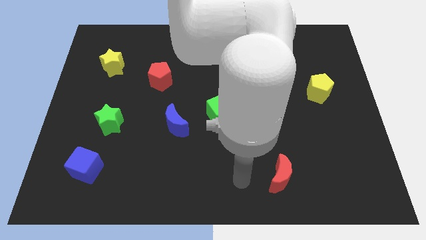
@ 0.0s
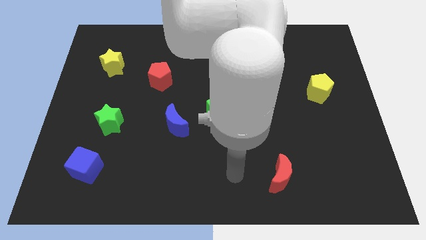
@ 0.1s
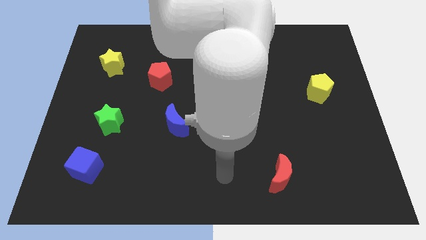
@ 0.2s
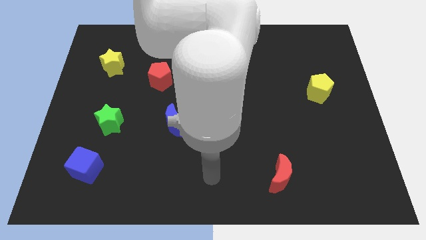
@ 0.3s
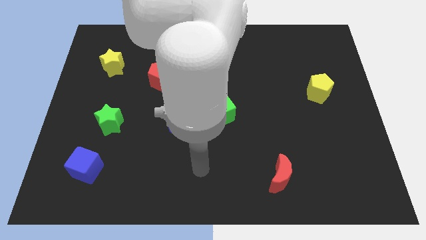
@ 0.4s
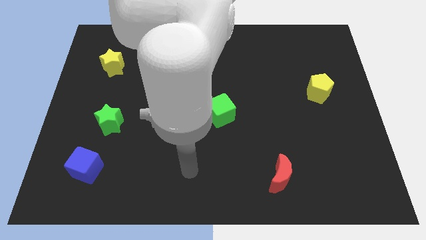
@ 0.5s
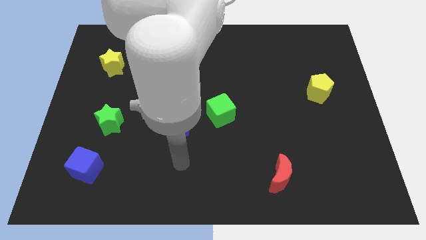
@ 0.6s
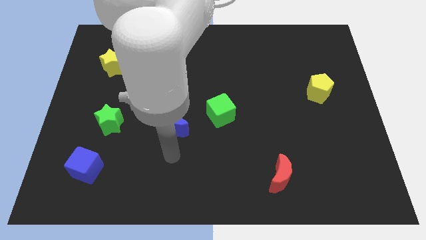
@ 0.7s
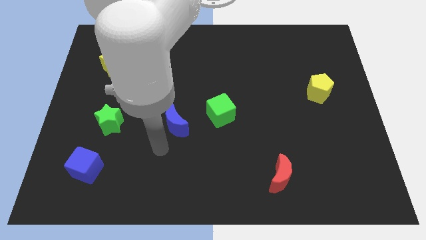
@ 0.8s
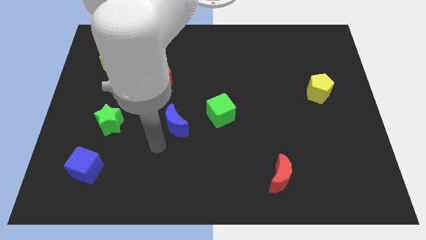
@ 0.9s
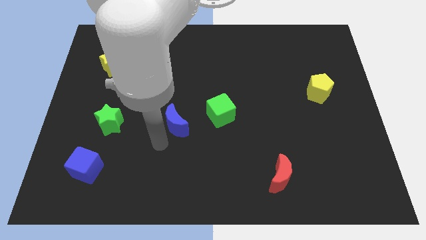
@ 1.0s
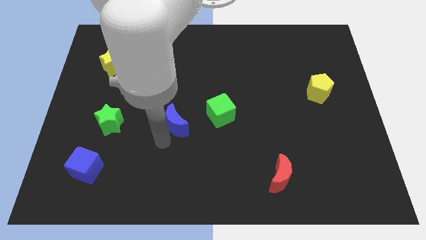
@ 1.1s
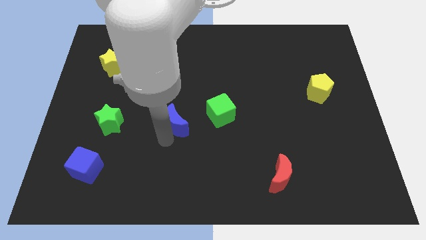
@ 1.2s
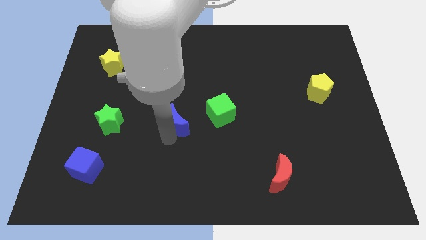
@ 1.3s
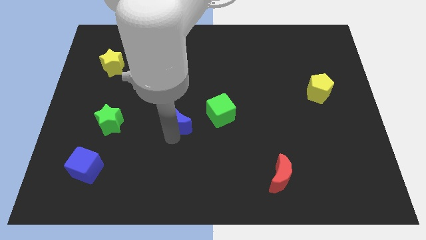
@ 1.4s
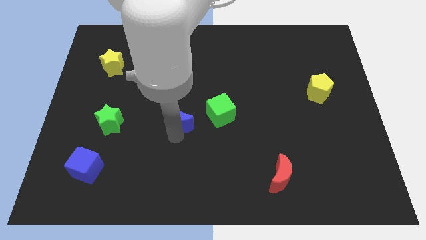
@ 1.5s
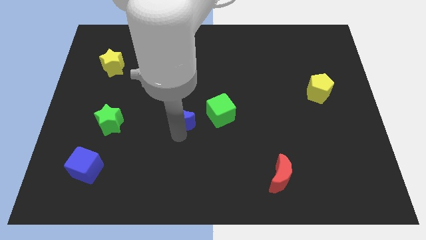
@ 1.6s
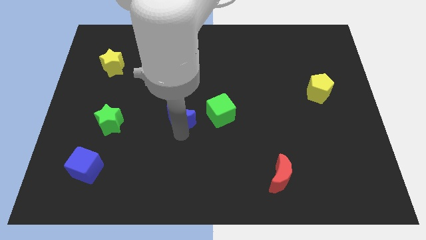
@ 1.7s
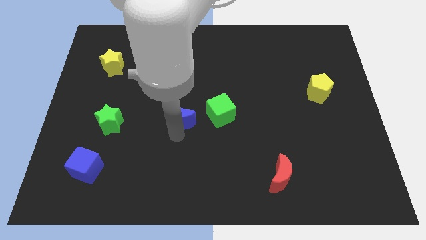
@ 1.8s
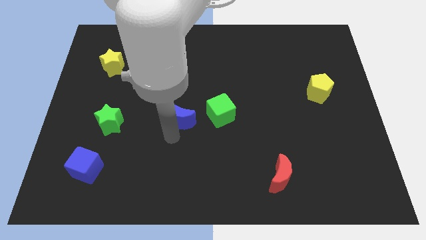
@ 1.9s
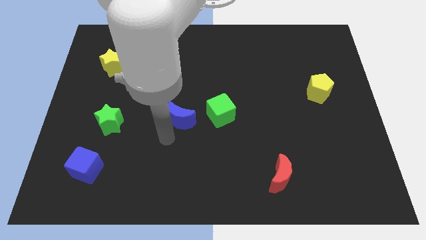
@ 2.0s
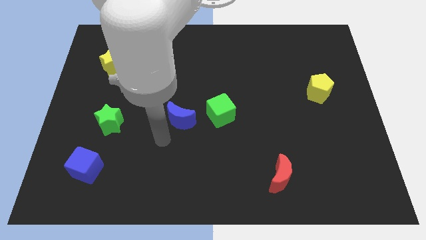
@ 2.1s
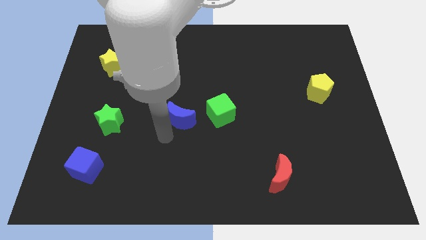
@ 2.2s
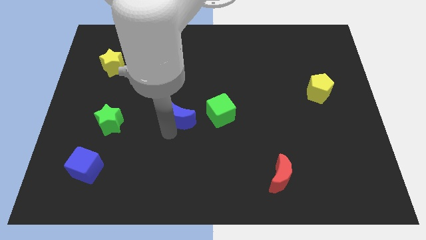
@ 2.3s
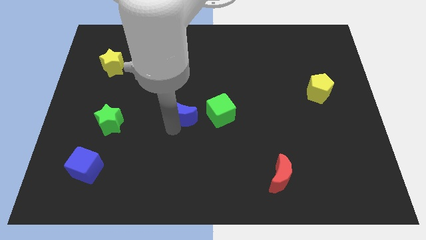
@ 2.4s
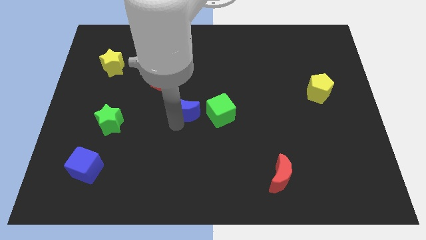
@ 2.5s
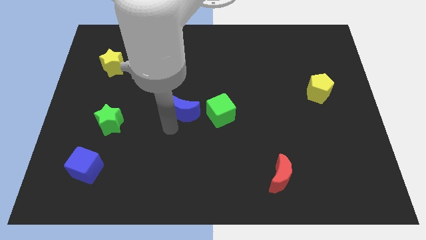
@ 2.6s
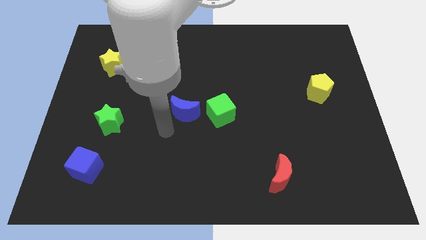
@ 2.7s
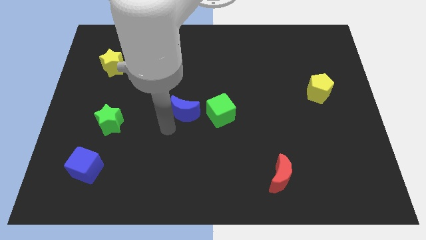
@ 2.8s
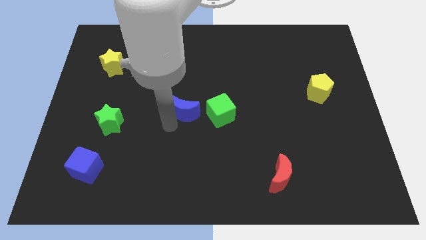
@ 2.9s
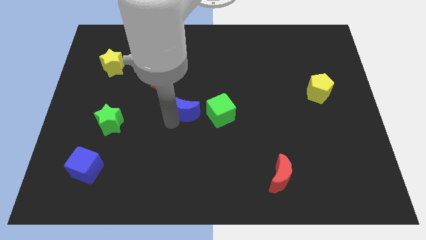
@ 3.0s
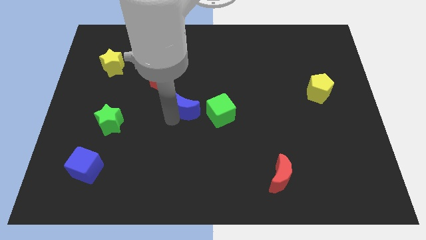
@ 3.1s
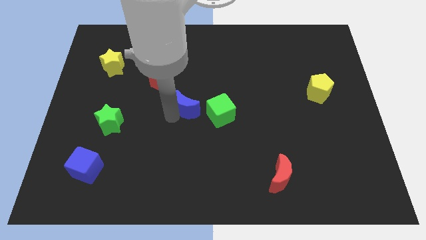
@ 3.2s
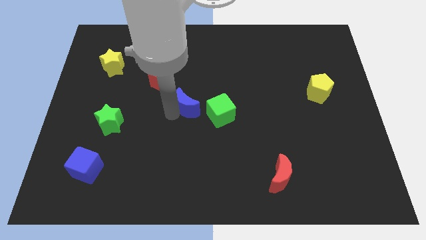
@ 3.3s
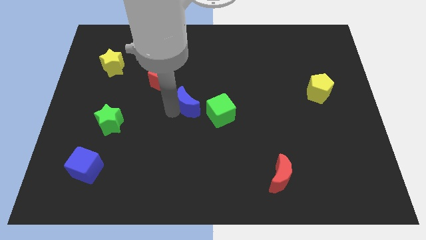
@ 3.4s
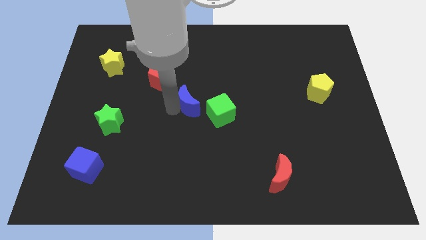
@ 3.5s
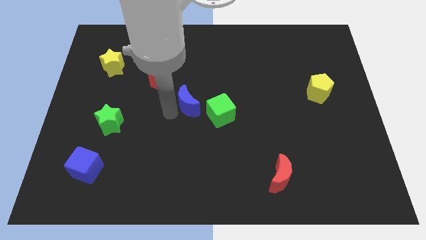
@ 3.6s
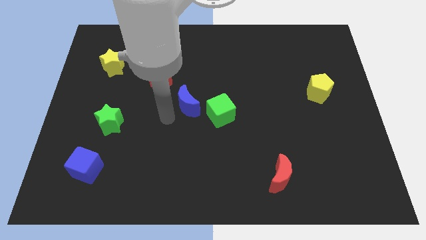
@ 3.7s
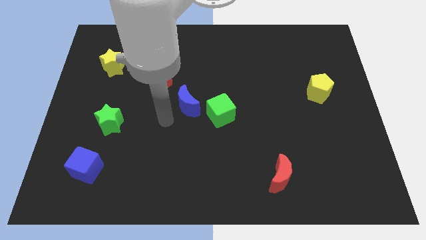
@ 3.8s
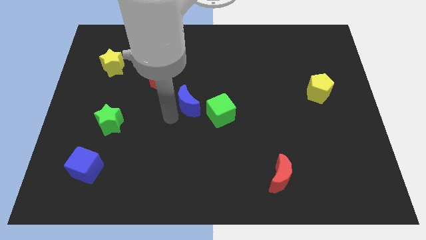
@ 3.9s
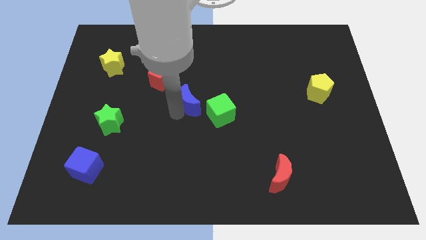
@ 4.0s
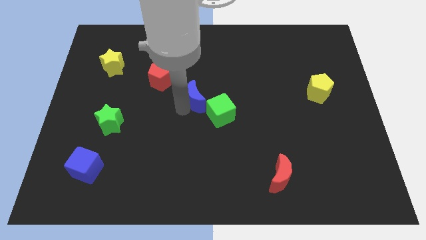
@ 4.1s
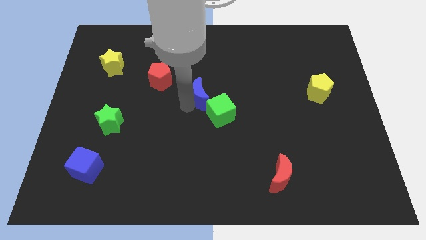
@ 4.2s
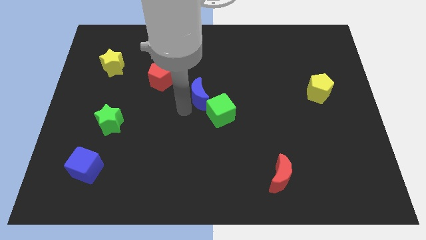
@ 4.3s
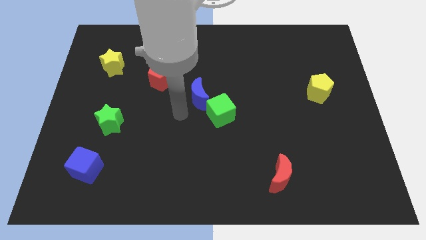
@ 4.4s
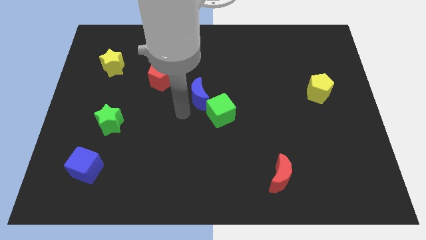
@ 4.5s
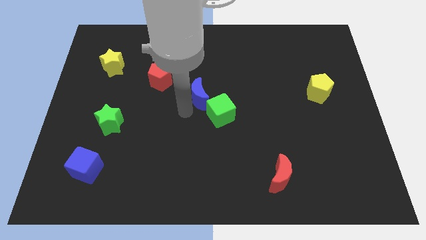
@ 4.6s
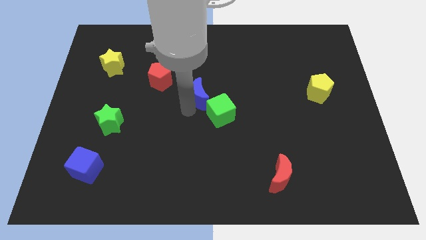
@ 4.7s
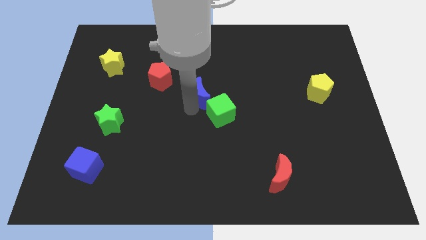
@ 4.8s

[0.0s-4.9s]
push the blue moon to the top of the green cube

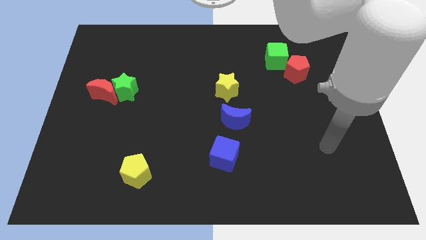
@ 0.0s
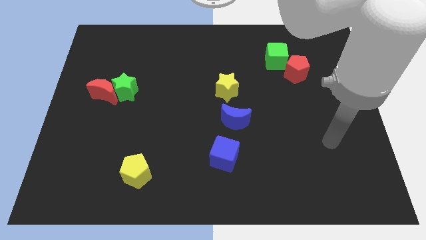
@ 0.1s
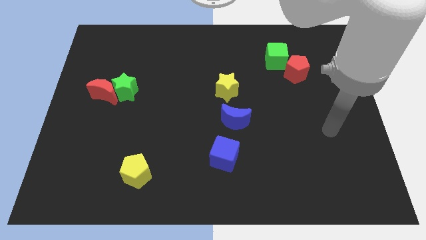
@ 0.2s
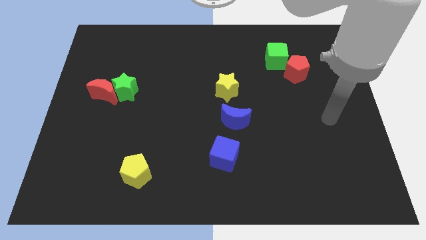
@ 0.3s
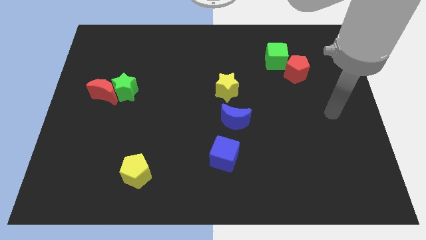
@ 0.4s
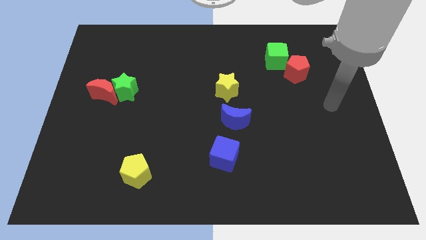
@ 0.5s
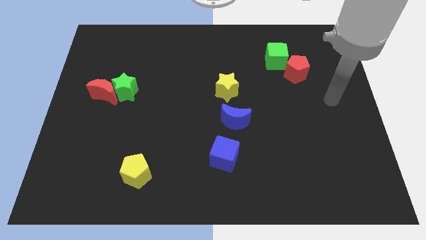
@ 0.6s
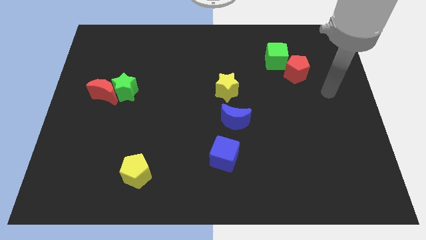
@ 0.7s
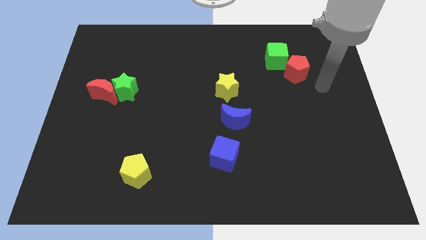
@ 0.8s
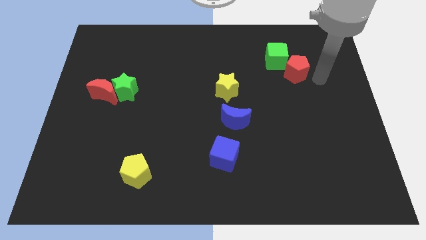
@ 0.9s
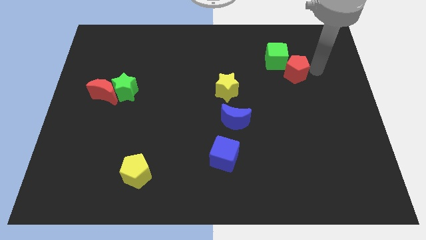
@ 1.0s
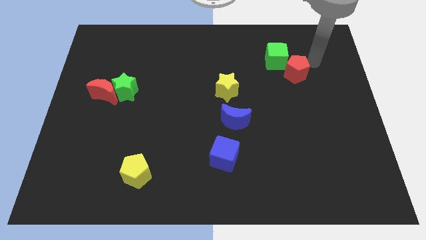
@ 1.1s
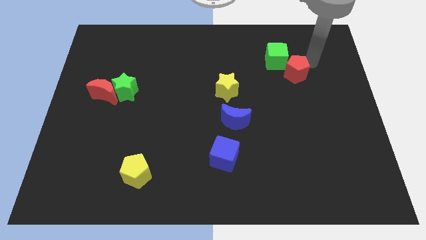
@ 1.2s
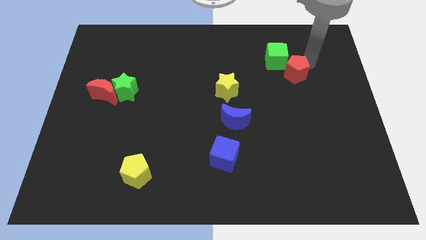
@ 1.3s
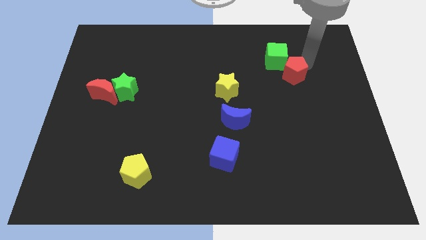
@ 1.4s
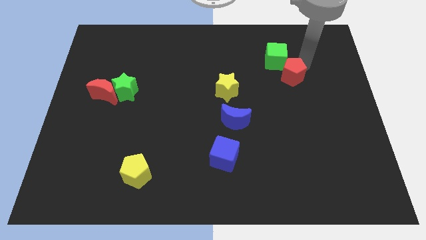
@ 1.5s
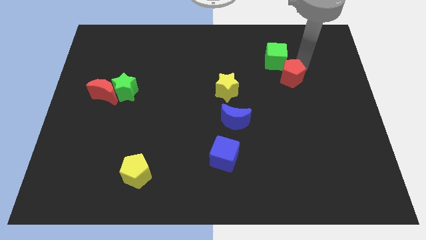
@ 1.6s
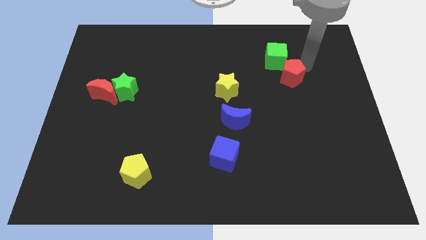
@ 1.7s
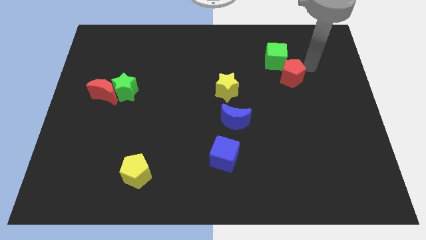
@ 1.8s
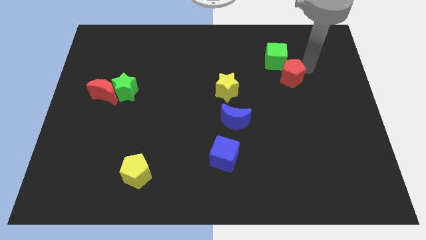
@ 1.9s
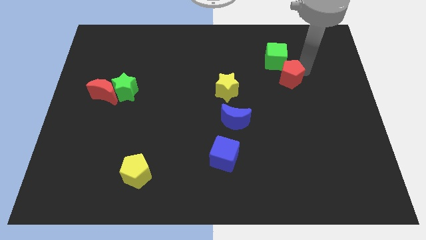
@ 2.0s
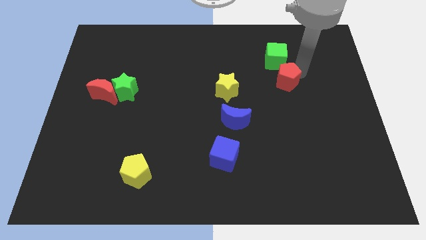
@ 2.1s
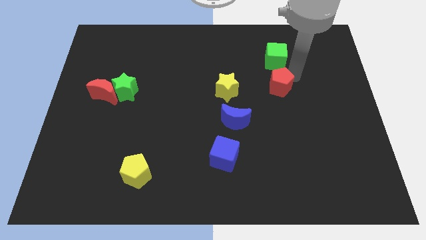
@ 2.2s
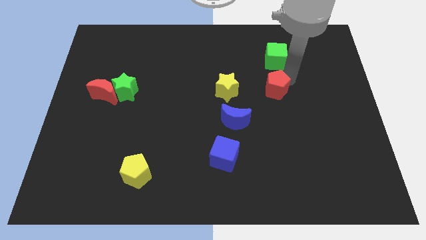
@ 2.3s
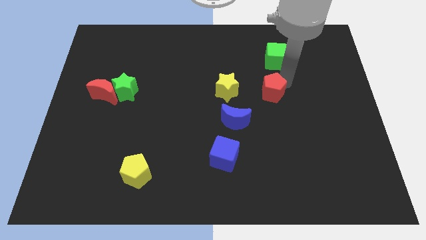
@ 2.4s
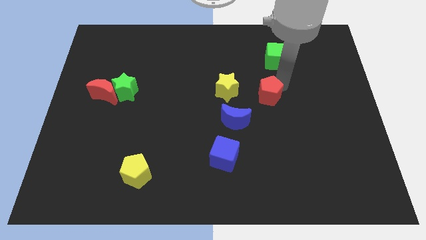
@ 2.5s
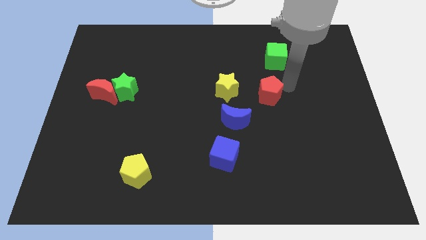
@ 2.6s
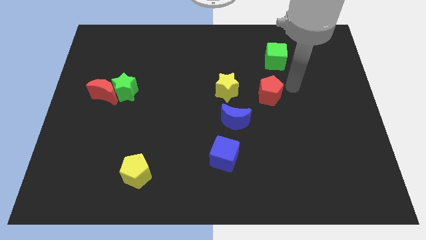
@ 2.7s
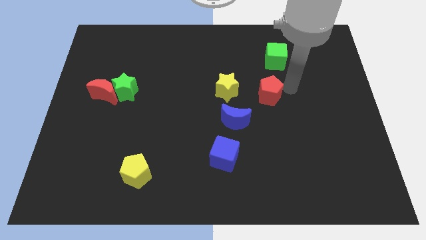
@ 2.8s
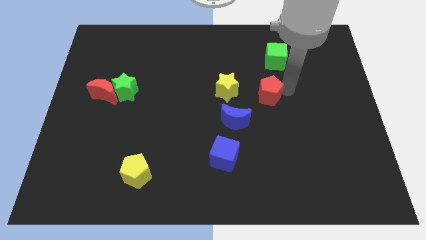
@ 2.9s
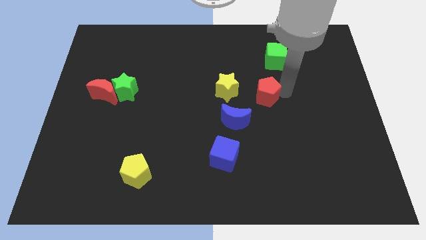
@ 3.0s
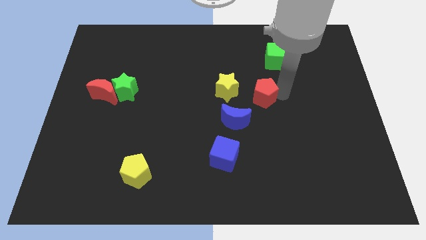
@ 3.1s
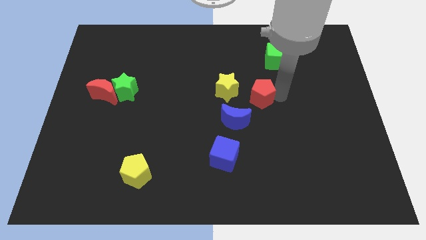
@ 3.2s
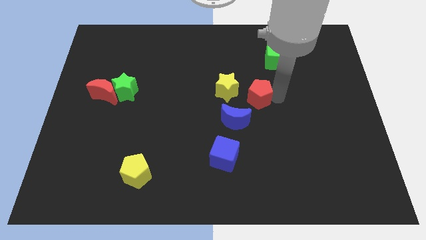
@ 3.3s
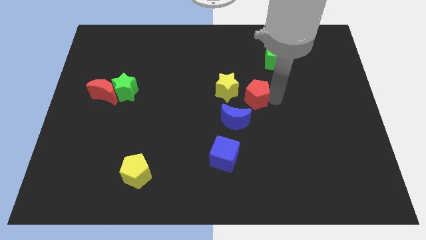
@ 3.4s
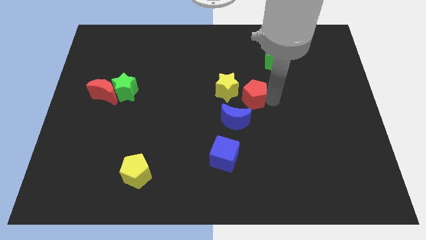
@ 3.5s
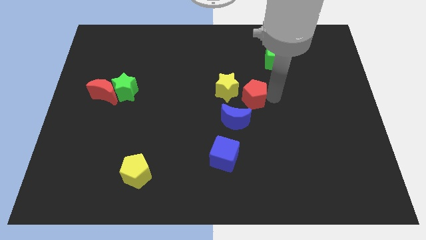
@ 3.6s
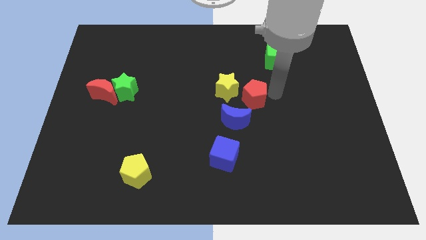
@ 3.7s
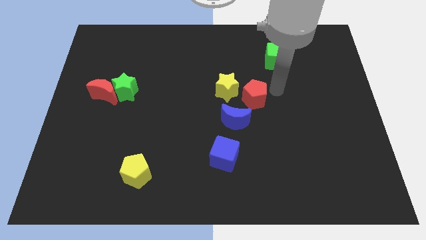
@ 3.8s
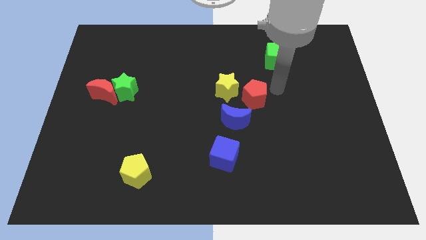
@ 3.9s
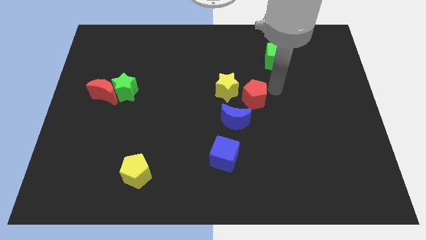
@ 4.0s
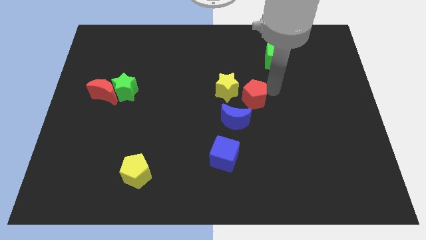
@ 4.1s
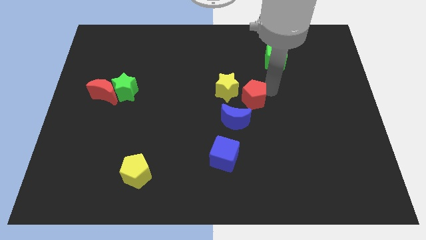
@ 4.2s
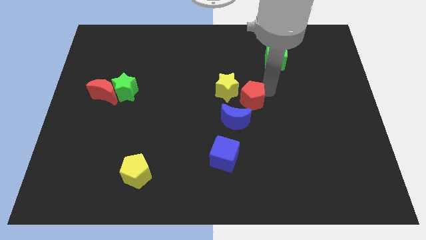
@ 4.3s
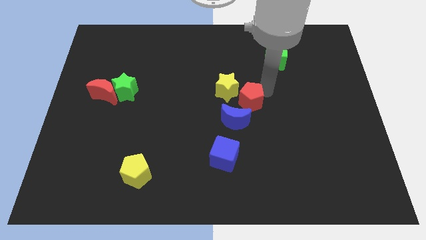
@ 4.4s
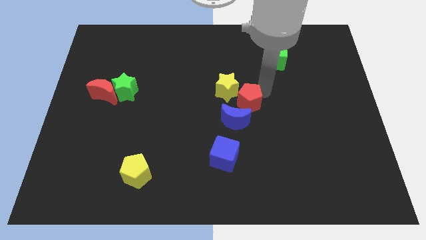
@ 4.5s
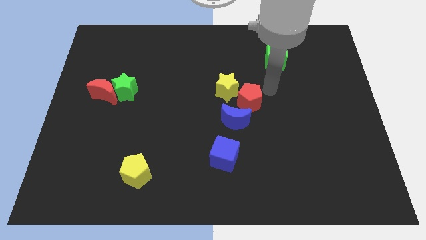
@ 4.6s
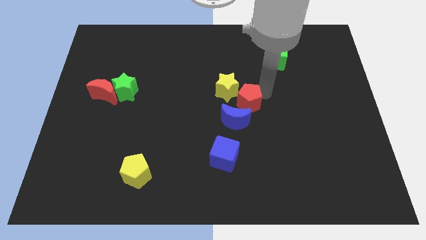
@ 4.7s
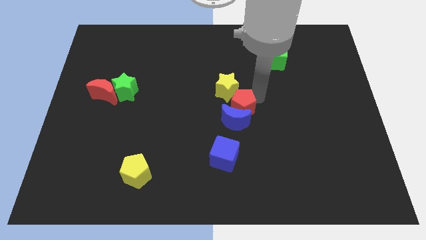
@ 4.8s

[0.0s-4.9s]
put the red pentagon above the blue cube
